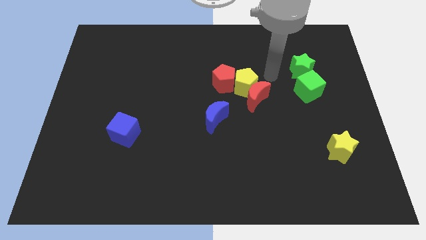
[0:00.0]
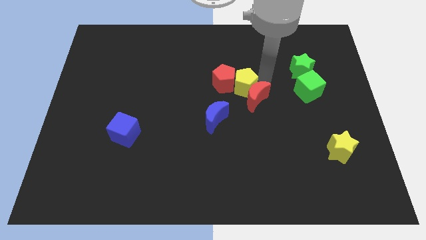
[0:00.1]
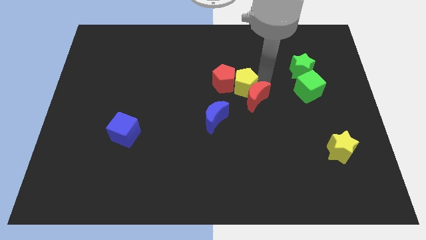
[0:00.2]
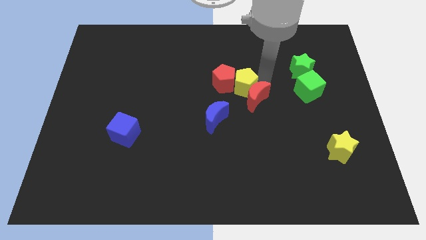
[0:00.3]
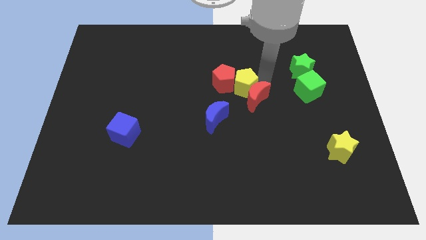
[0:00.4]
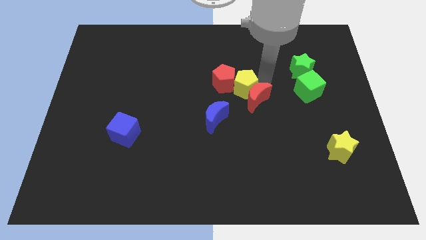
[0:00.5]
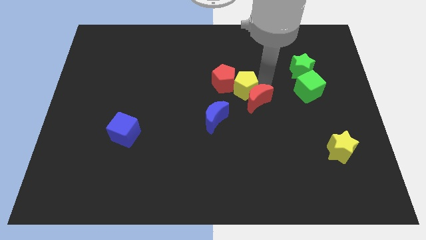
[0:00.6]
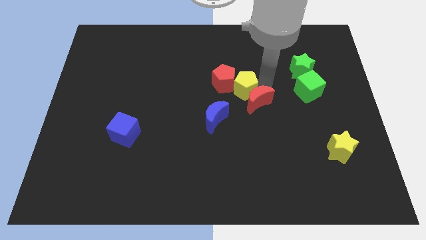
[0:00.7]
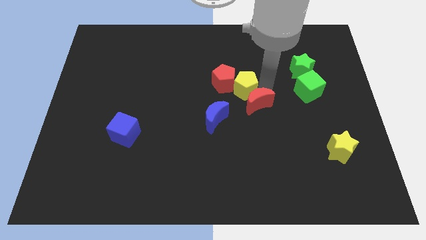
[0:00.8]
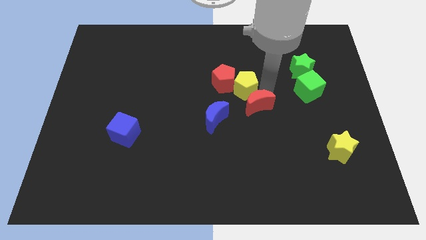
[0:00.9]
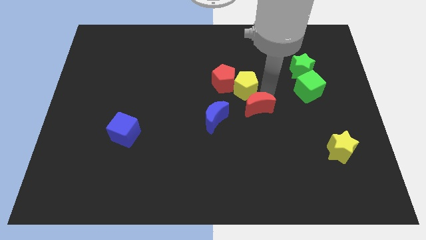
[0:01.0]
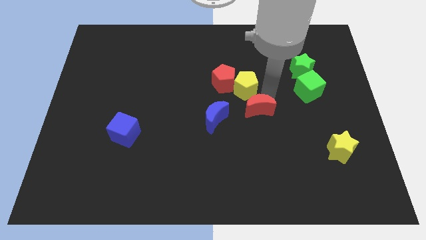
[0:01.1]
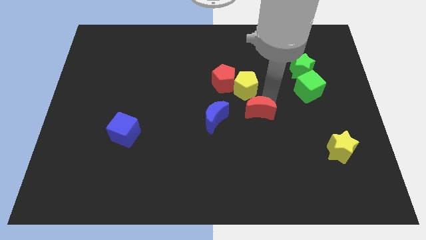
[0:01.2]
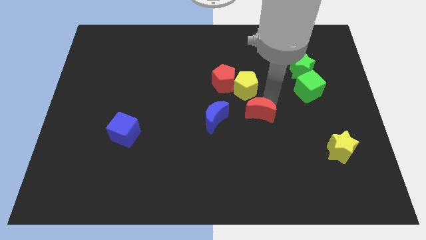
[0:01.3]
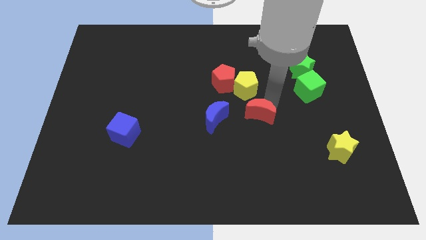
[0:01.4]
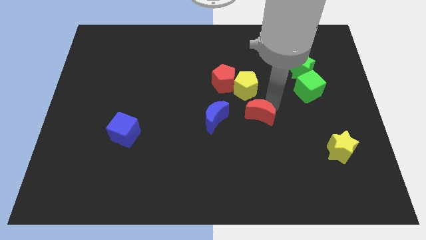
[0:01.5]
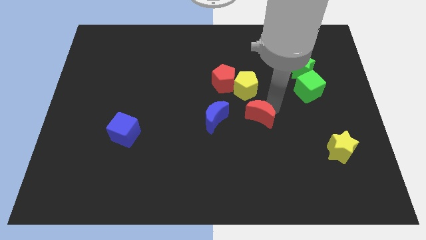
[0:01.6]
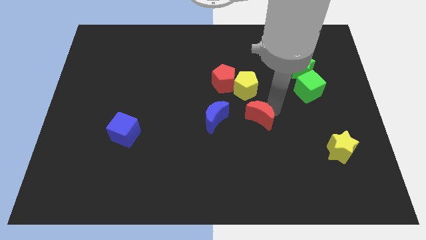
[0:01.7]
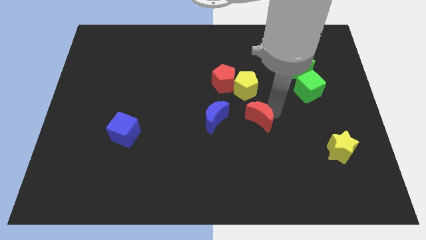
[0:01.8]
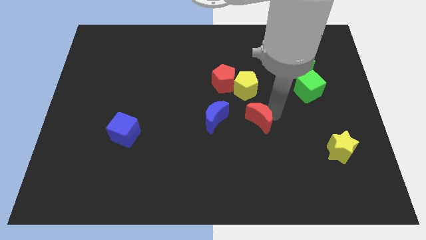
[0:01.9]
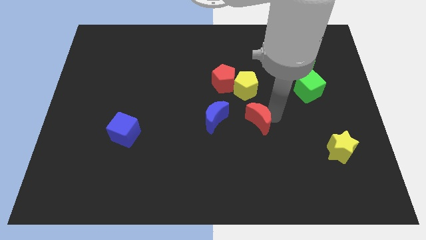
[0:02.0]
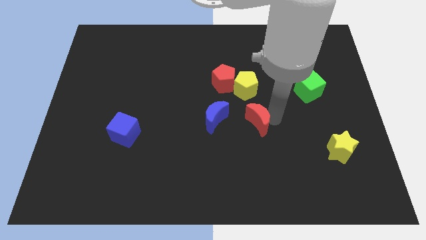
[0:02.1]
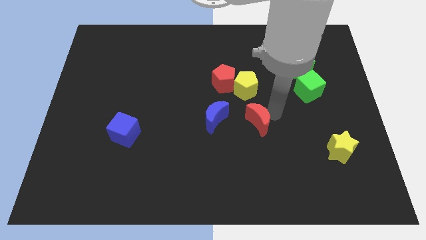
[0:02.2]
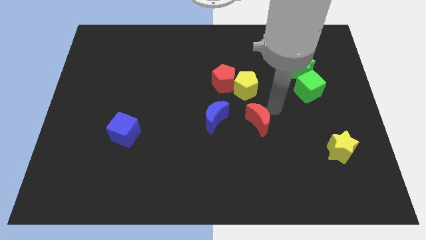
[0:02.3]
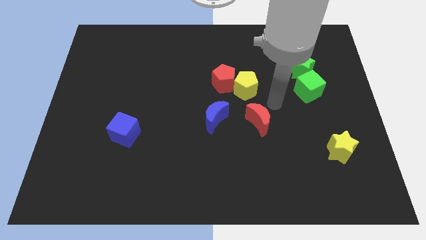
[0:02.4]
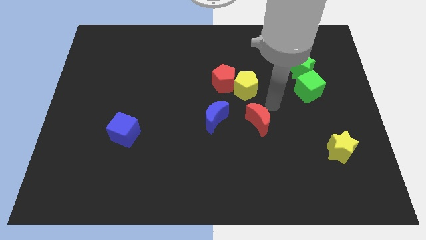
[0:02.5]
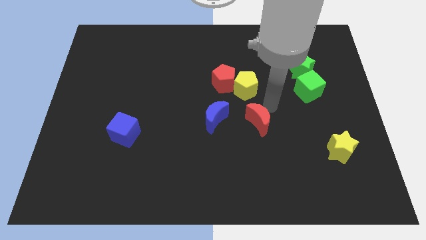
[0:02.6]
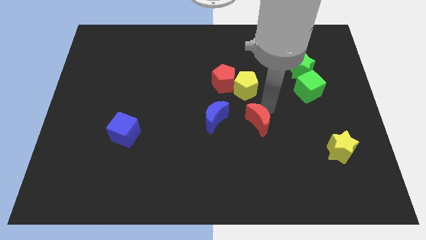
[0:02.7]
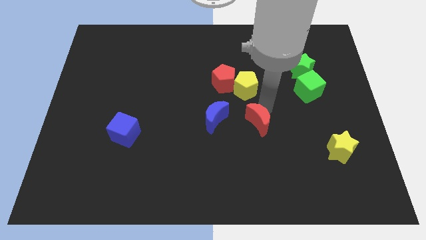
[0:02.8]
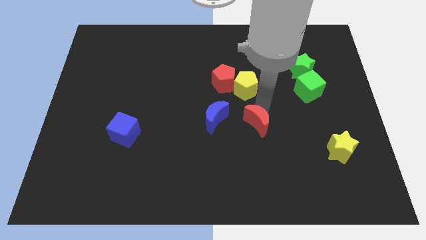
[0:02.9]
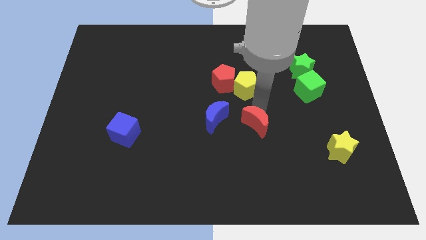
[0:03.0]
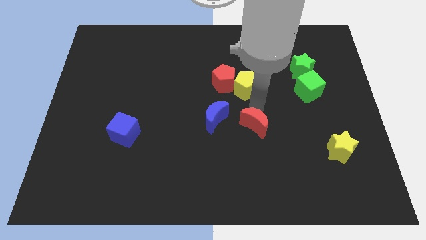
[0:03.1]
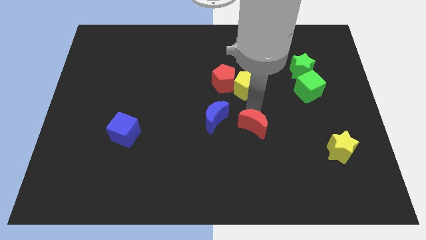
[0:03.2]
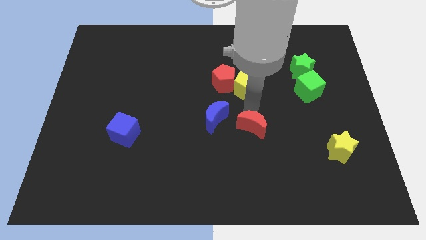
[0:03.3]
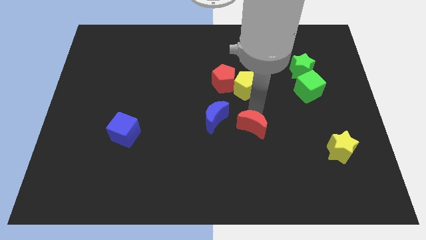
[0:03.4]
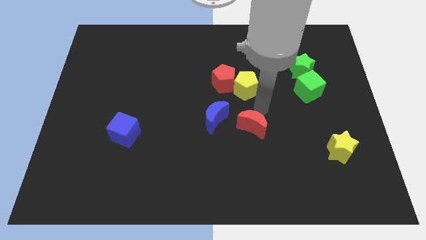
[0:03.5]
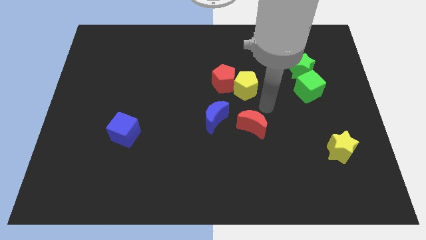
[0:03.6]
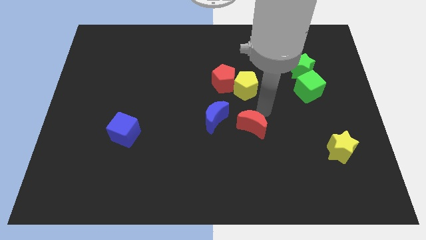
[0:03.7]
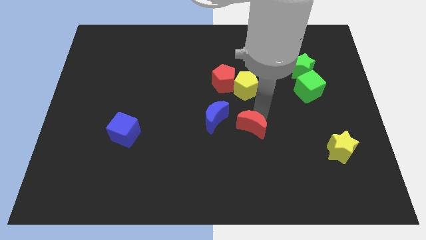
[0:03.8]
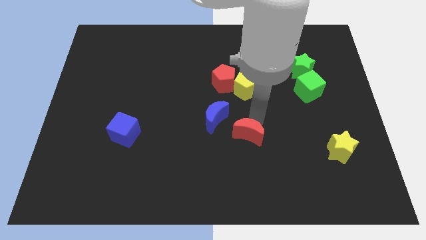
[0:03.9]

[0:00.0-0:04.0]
move the red moon down and then left a little

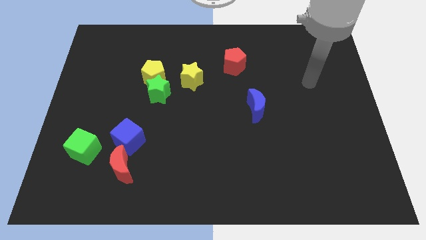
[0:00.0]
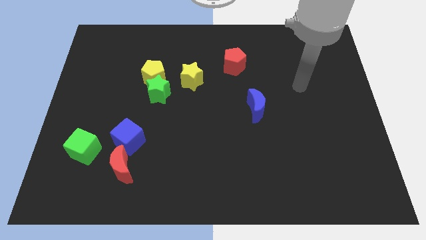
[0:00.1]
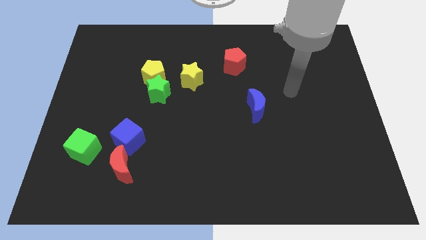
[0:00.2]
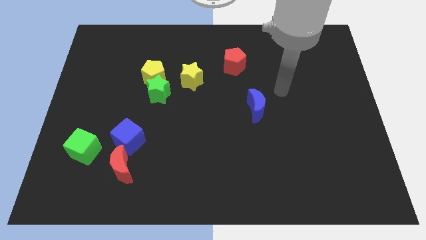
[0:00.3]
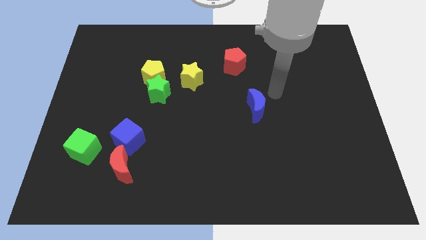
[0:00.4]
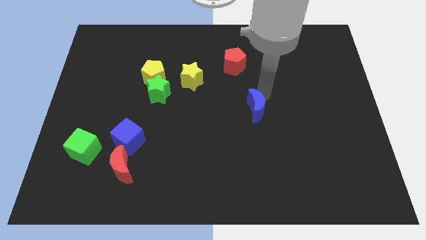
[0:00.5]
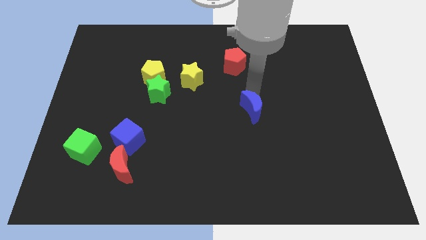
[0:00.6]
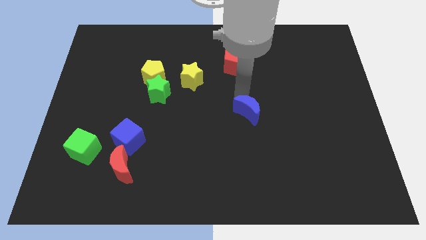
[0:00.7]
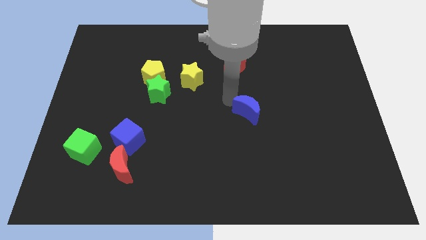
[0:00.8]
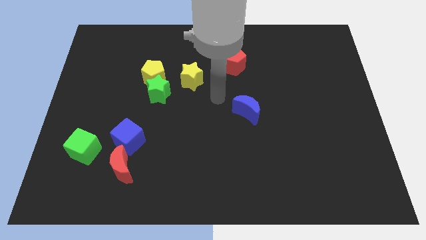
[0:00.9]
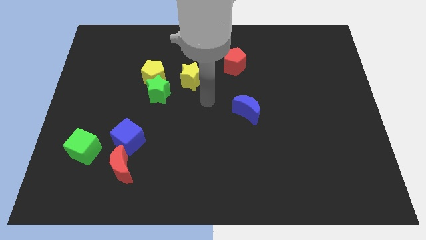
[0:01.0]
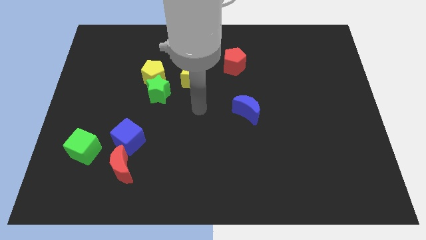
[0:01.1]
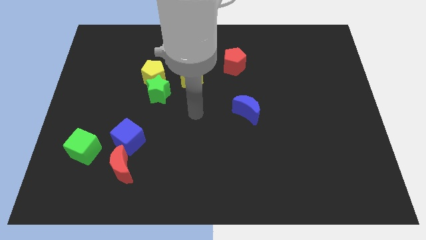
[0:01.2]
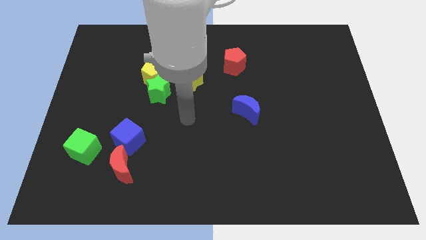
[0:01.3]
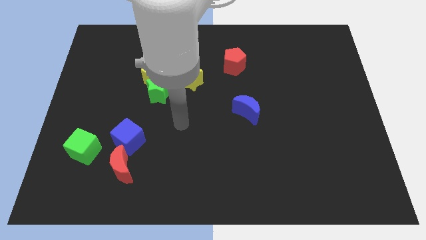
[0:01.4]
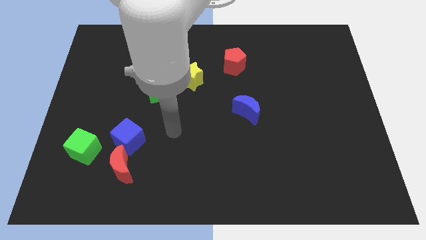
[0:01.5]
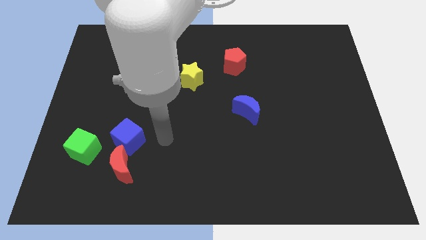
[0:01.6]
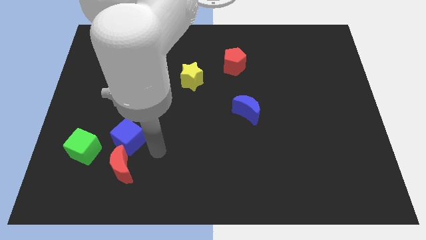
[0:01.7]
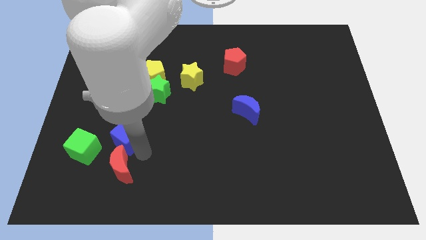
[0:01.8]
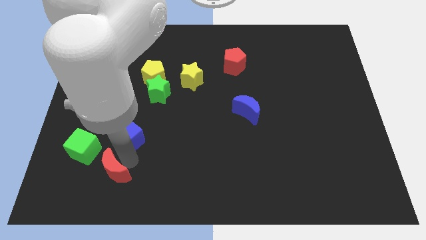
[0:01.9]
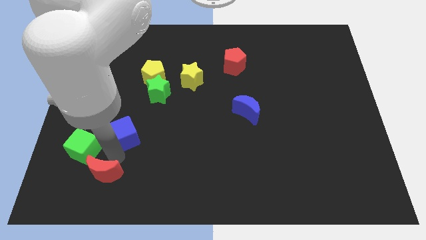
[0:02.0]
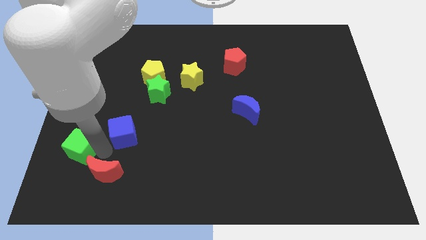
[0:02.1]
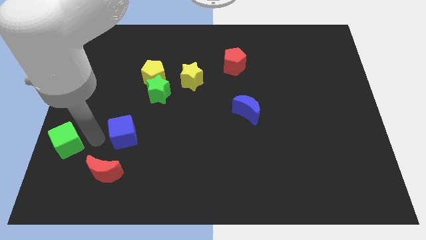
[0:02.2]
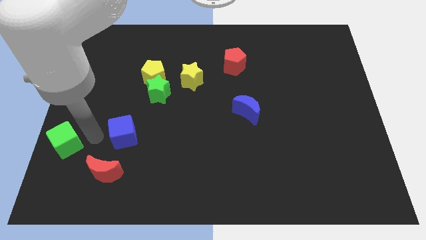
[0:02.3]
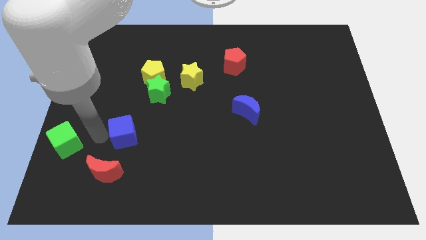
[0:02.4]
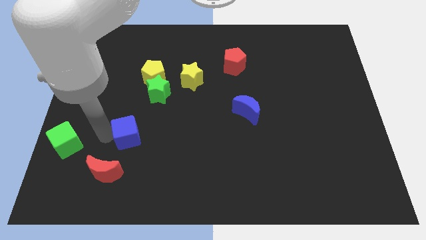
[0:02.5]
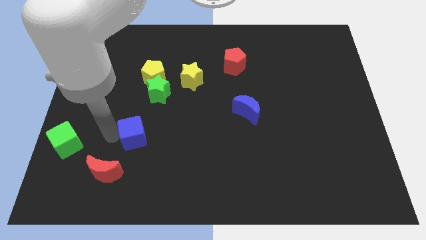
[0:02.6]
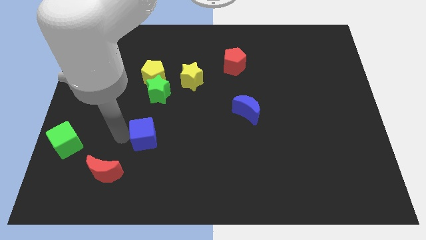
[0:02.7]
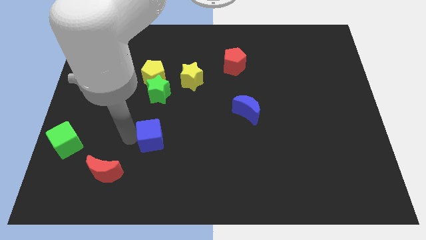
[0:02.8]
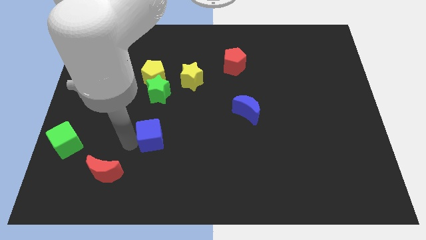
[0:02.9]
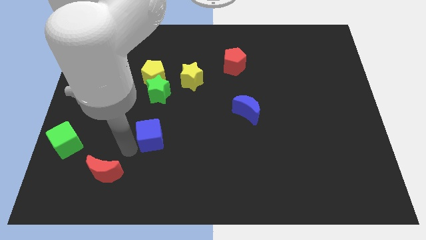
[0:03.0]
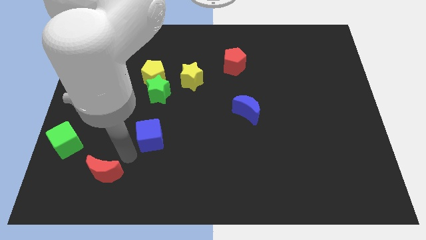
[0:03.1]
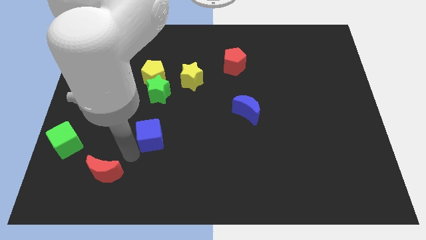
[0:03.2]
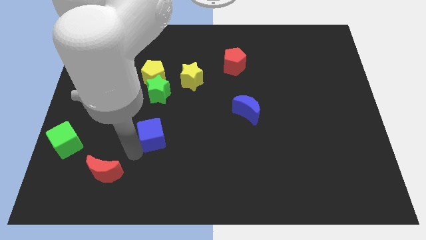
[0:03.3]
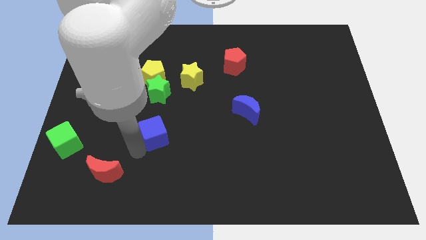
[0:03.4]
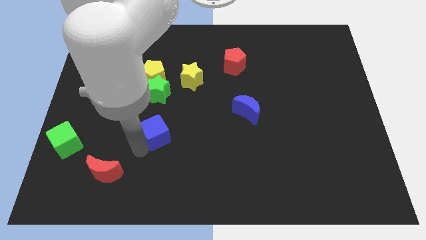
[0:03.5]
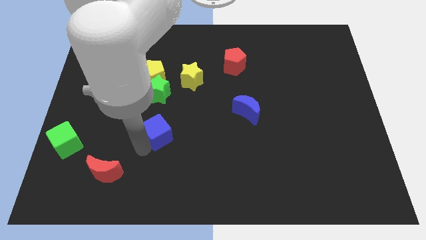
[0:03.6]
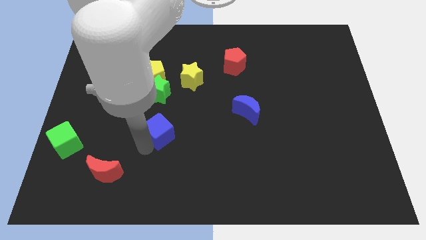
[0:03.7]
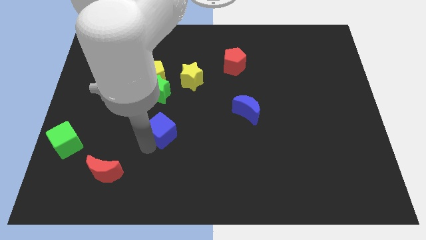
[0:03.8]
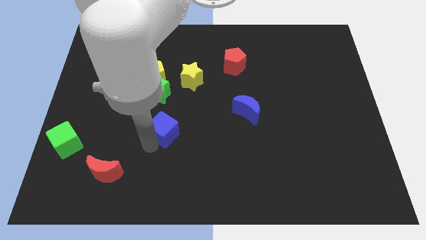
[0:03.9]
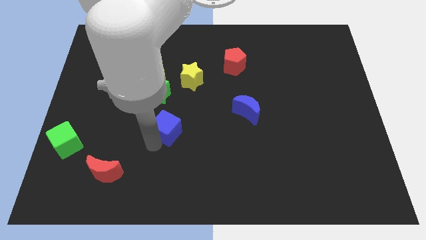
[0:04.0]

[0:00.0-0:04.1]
move the blue cube a little bit upwards and to the right diagonally

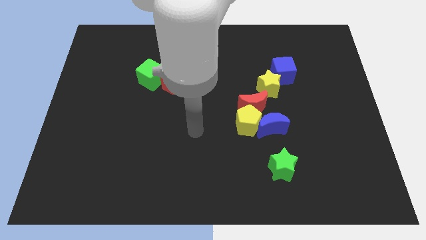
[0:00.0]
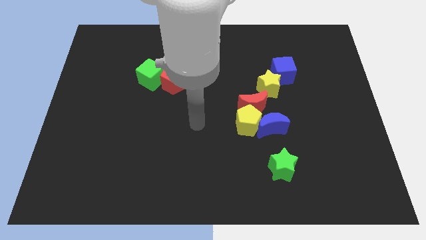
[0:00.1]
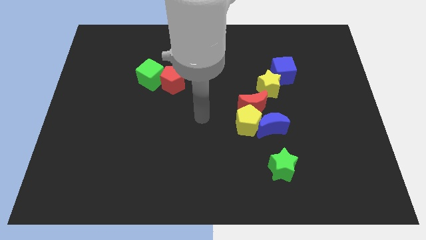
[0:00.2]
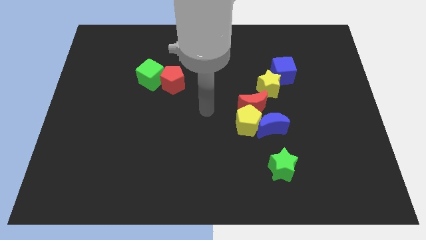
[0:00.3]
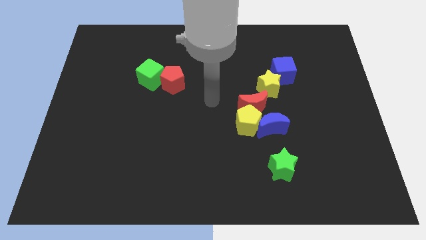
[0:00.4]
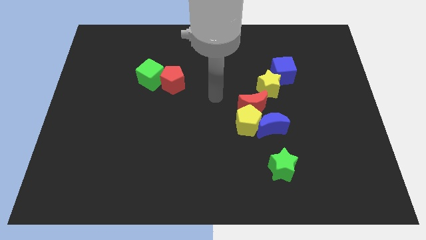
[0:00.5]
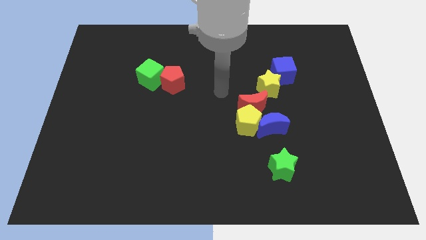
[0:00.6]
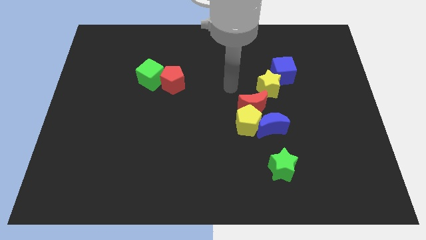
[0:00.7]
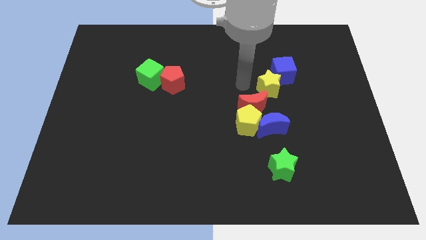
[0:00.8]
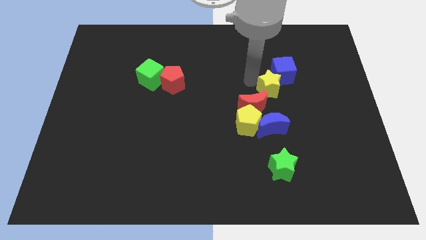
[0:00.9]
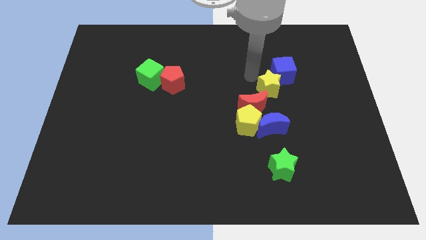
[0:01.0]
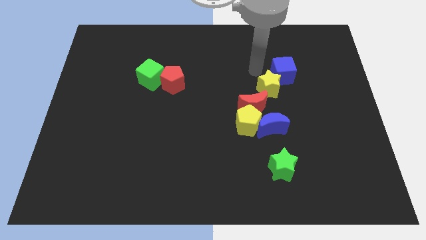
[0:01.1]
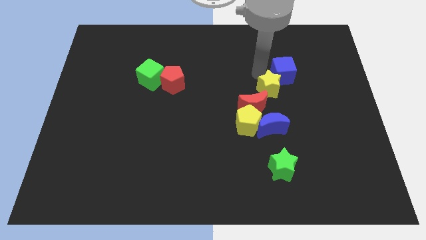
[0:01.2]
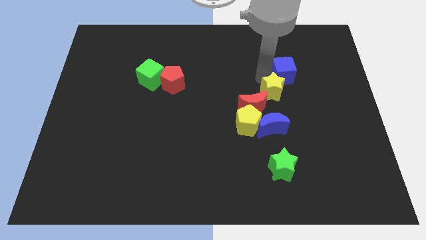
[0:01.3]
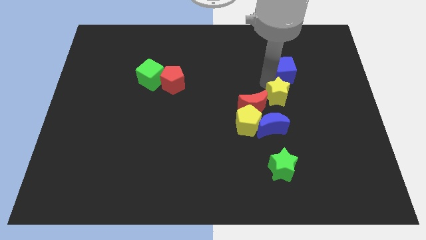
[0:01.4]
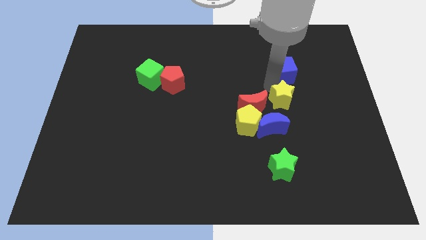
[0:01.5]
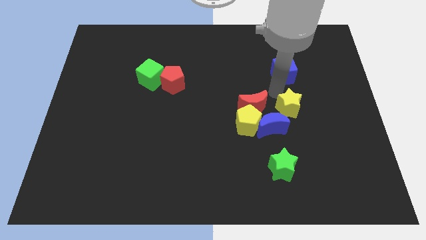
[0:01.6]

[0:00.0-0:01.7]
slightly push the yellow star downwards and right
